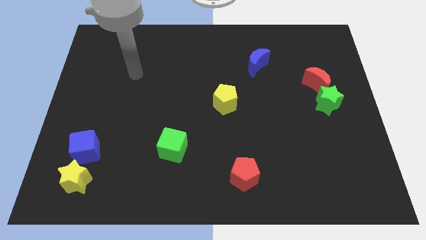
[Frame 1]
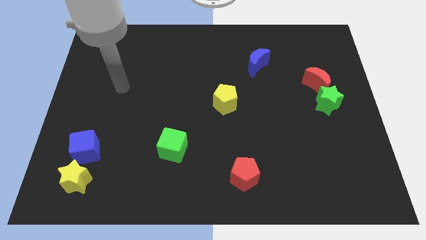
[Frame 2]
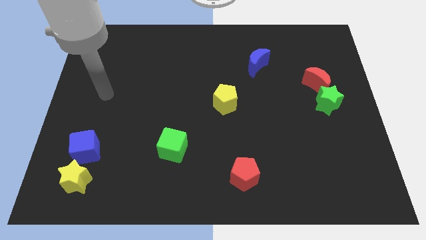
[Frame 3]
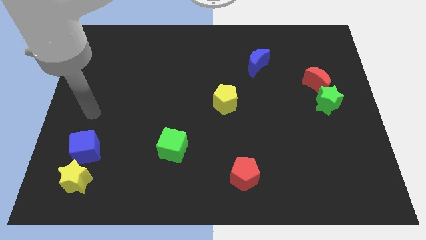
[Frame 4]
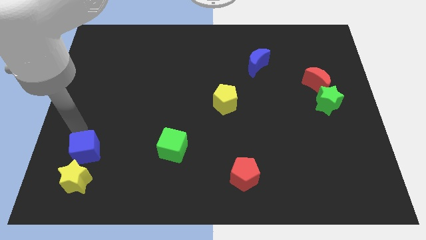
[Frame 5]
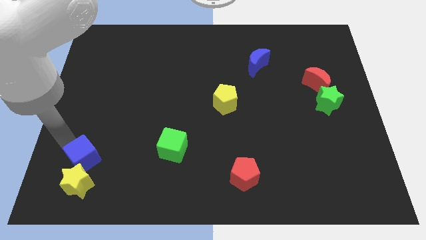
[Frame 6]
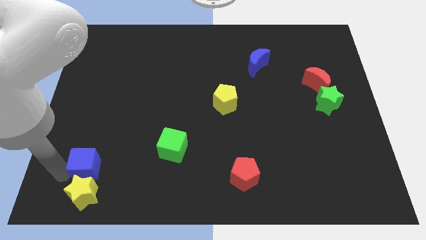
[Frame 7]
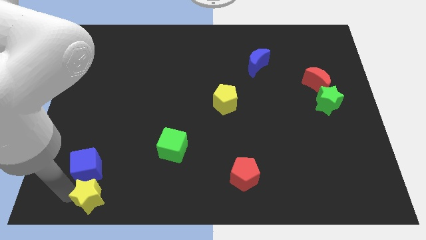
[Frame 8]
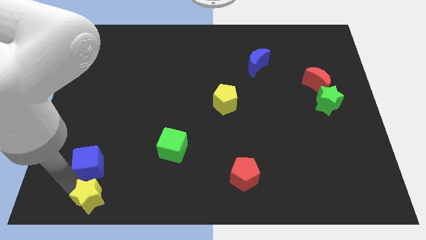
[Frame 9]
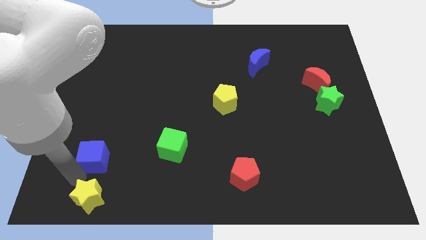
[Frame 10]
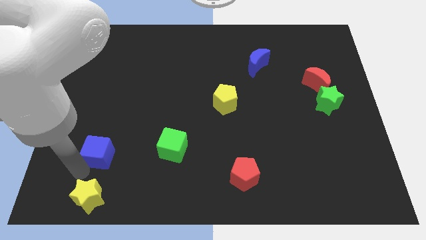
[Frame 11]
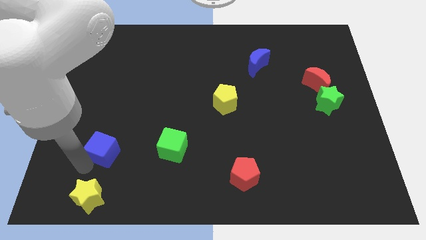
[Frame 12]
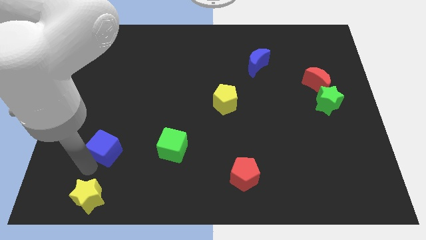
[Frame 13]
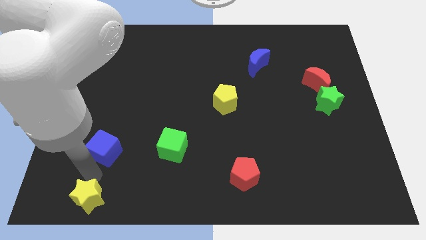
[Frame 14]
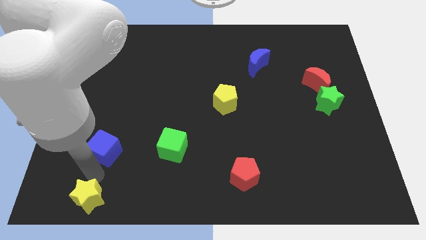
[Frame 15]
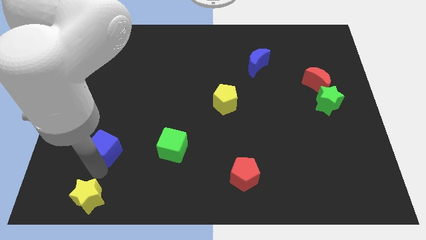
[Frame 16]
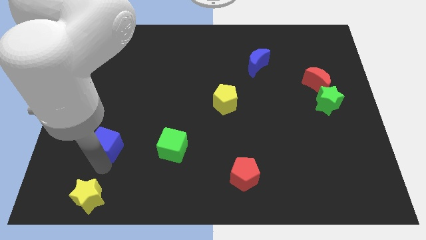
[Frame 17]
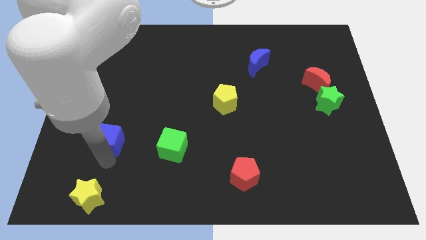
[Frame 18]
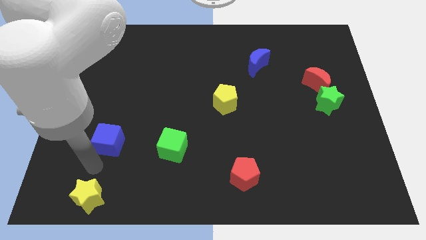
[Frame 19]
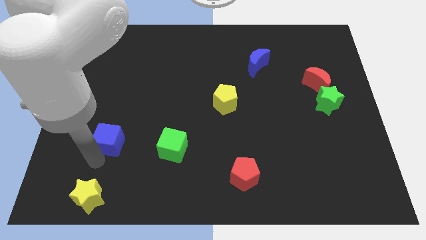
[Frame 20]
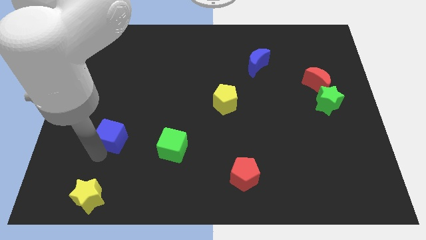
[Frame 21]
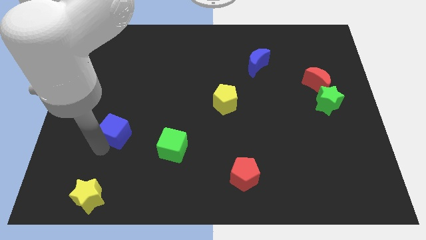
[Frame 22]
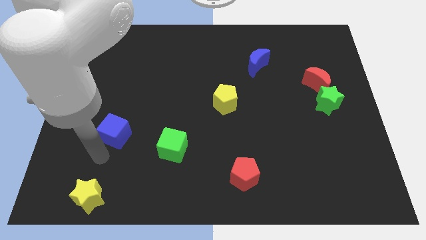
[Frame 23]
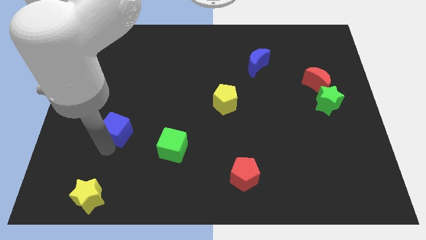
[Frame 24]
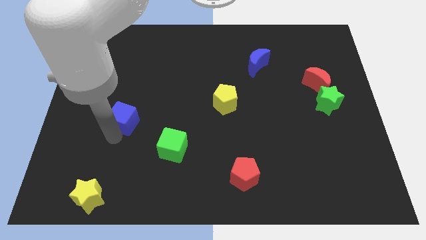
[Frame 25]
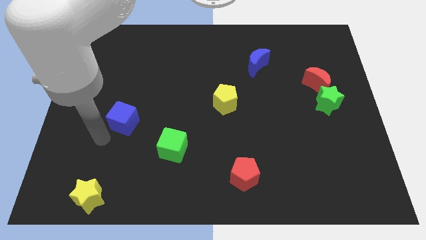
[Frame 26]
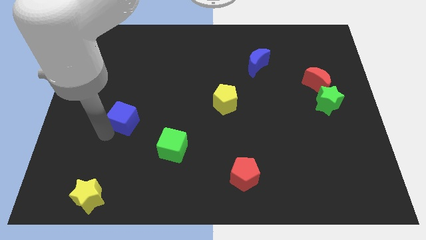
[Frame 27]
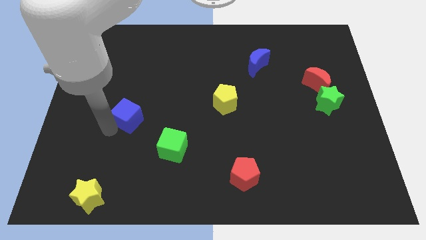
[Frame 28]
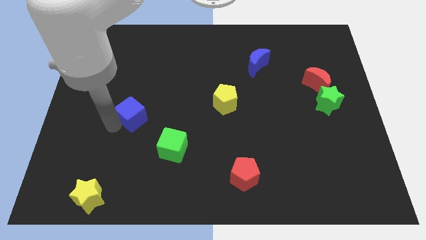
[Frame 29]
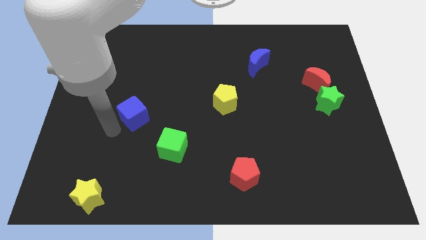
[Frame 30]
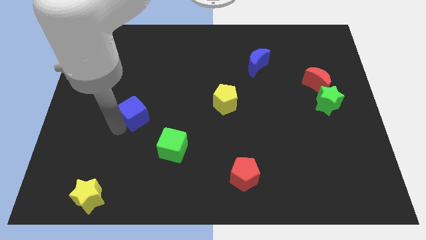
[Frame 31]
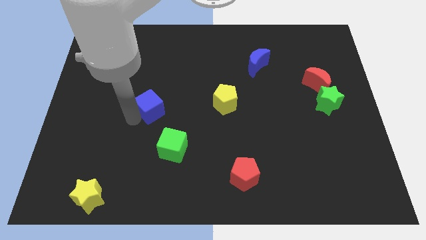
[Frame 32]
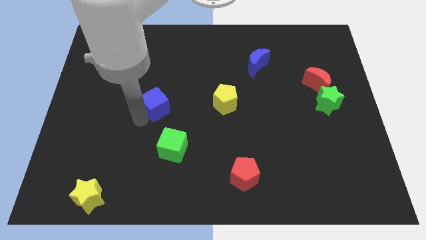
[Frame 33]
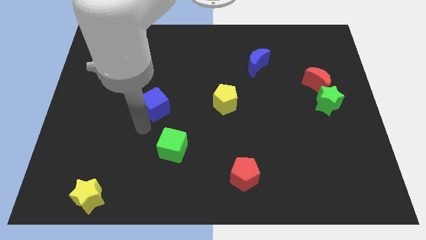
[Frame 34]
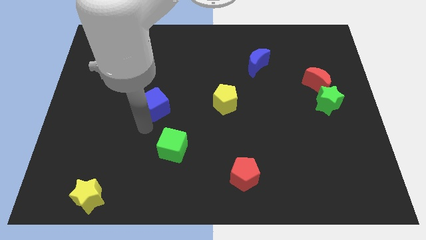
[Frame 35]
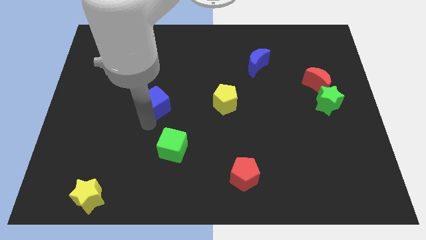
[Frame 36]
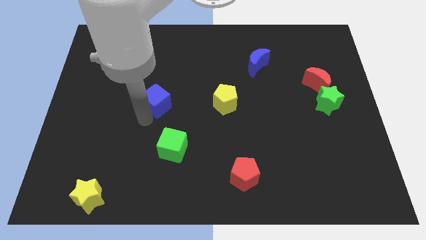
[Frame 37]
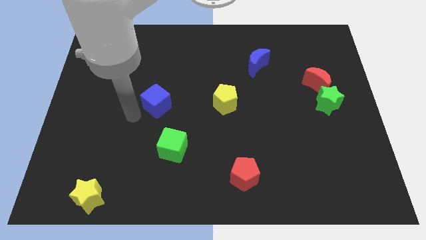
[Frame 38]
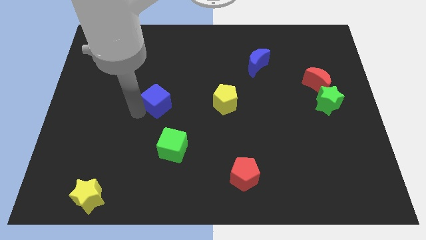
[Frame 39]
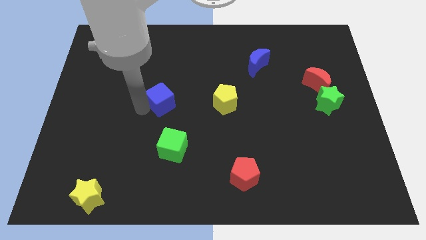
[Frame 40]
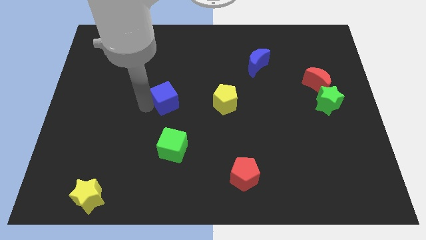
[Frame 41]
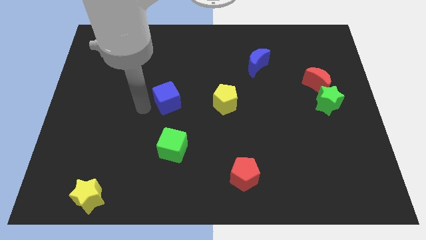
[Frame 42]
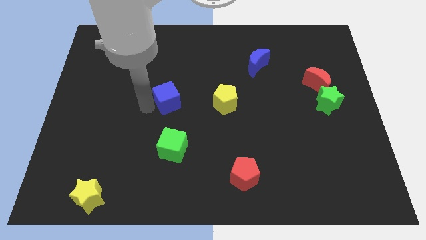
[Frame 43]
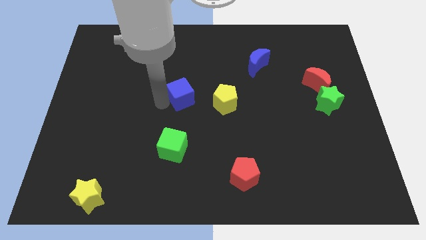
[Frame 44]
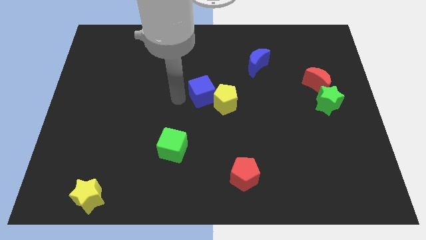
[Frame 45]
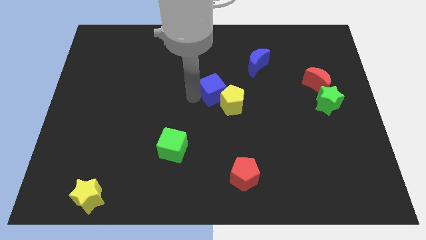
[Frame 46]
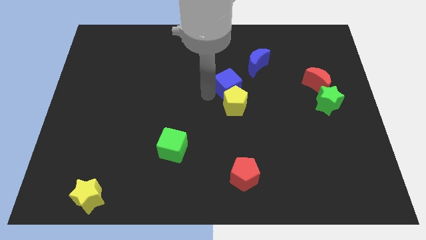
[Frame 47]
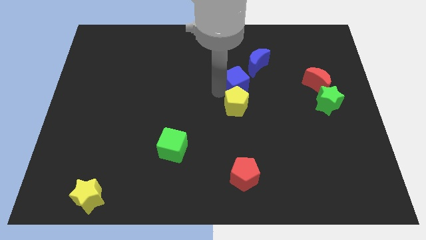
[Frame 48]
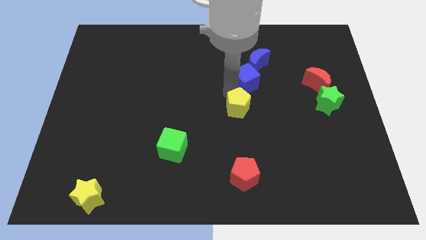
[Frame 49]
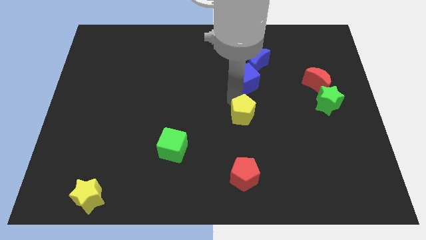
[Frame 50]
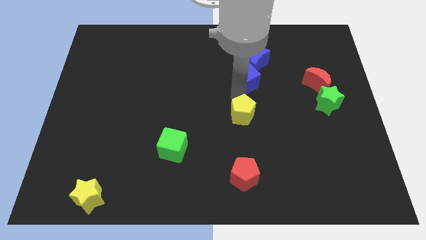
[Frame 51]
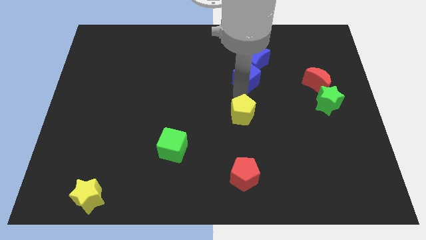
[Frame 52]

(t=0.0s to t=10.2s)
put the blue cube to the blue moon

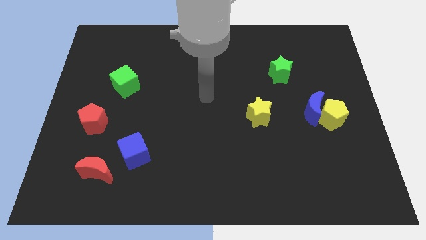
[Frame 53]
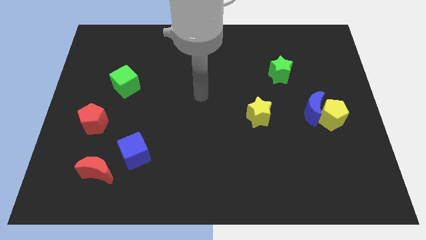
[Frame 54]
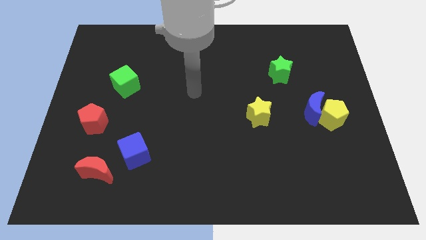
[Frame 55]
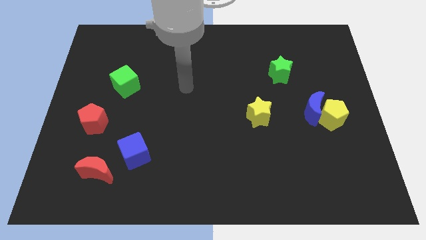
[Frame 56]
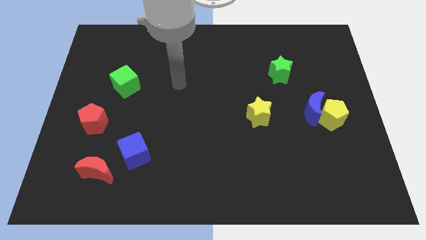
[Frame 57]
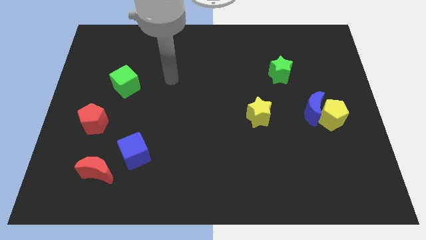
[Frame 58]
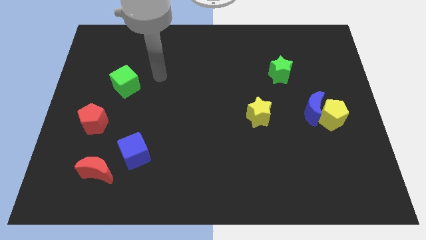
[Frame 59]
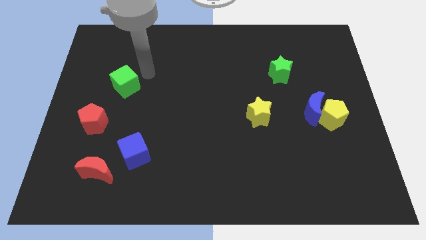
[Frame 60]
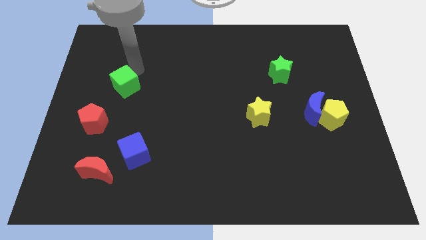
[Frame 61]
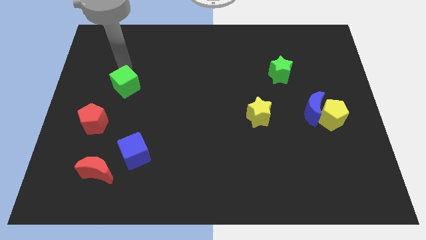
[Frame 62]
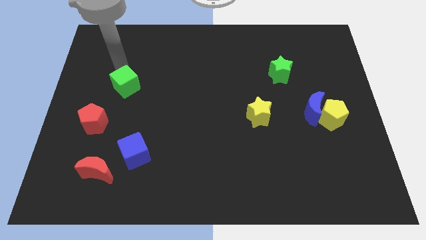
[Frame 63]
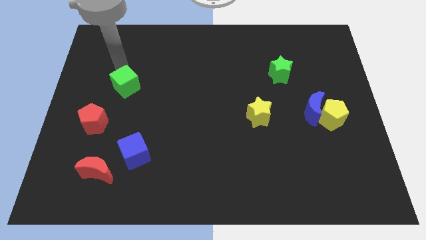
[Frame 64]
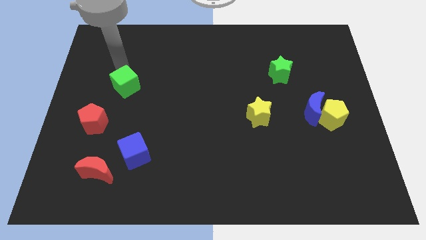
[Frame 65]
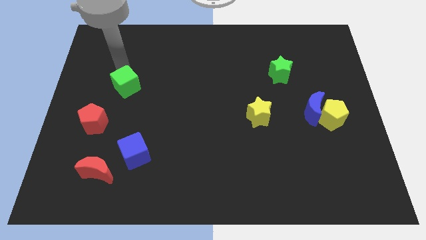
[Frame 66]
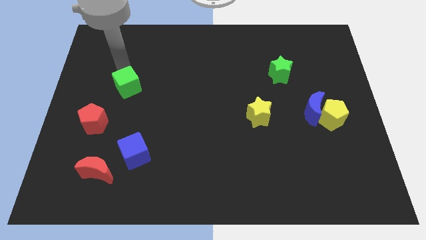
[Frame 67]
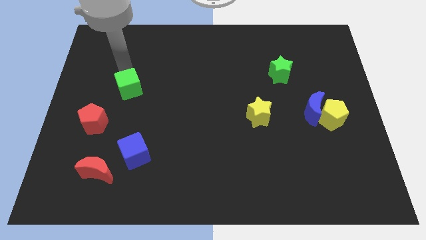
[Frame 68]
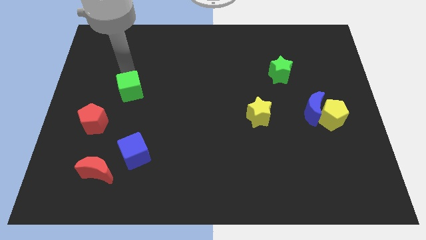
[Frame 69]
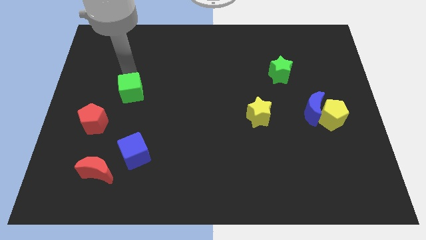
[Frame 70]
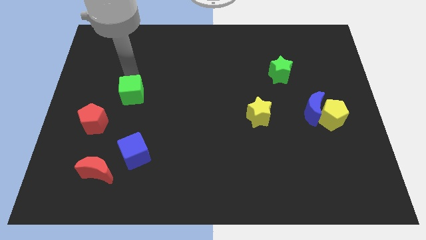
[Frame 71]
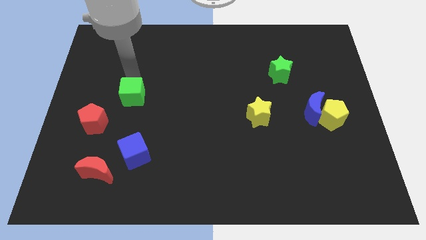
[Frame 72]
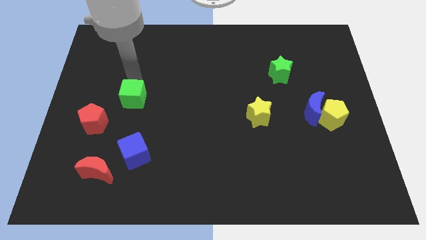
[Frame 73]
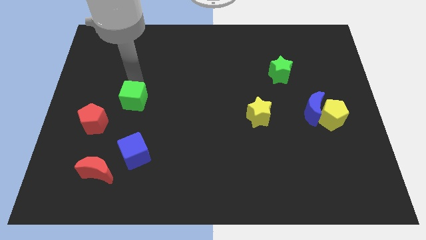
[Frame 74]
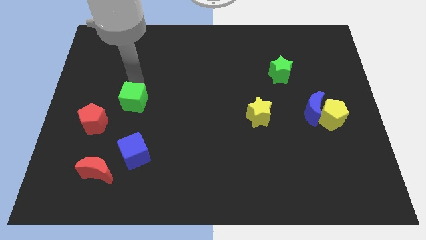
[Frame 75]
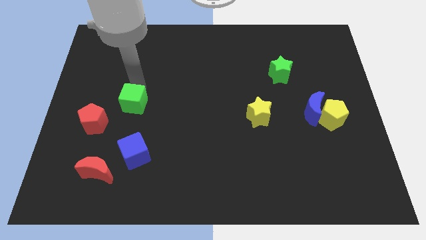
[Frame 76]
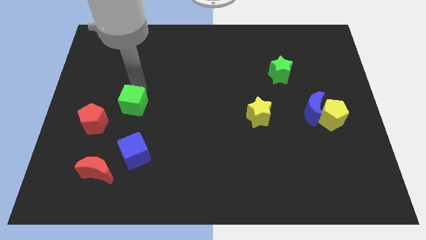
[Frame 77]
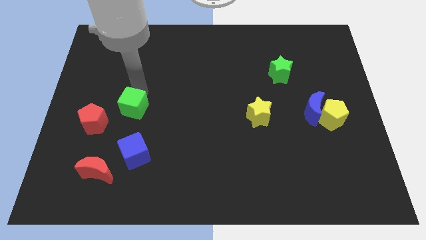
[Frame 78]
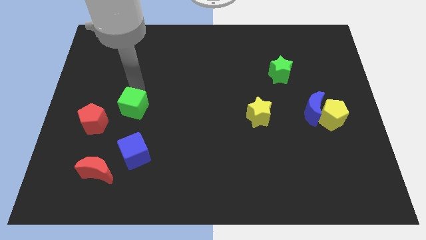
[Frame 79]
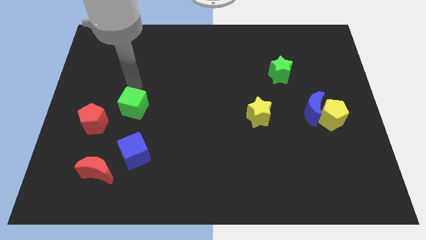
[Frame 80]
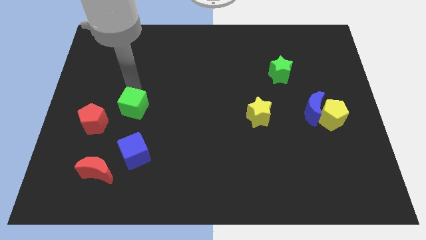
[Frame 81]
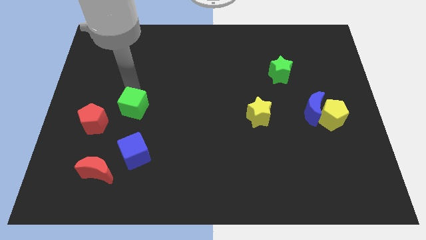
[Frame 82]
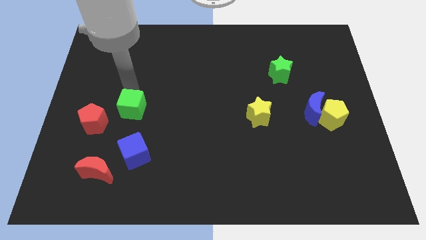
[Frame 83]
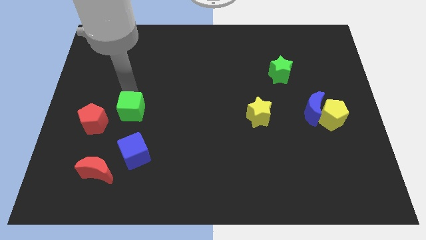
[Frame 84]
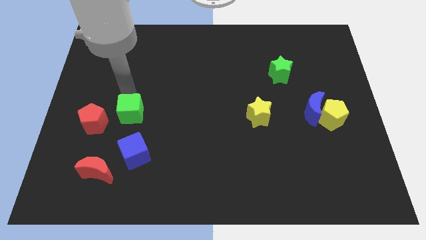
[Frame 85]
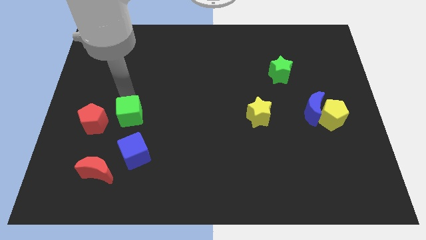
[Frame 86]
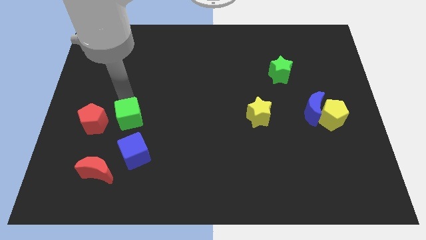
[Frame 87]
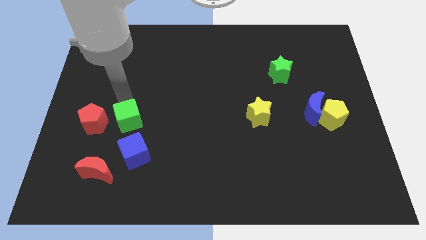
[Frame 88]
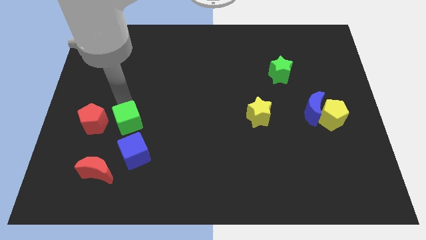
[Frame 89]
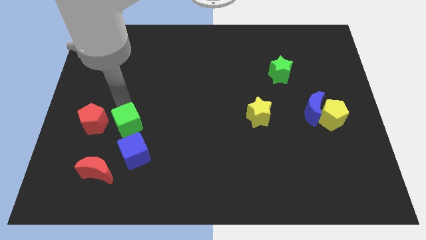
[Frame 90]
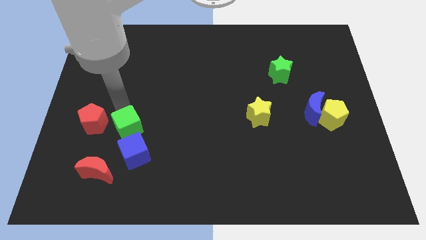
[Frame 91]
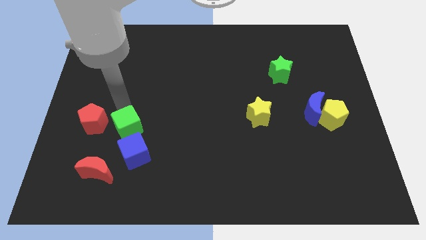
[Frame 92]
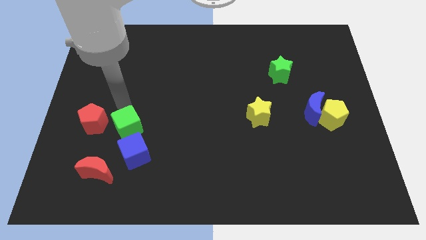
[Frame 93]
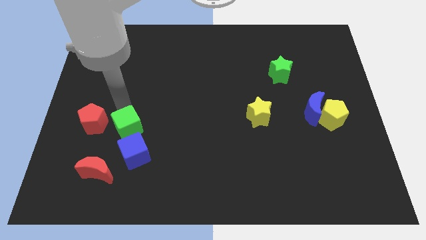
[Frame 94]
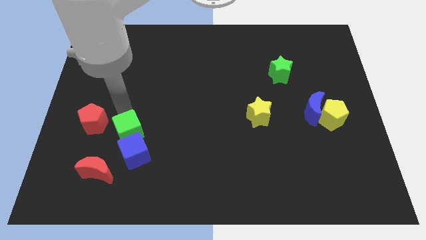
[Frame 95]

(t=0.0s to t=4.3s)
slide the green cube towards the blue cube
